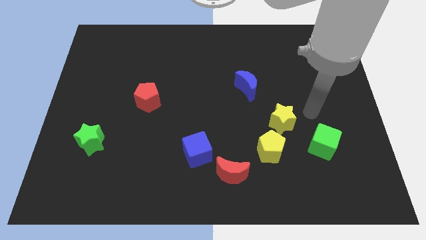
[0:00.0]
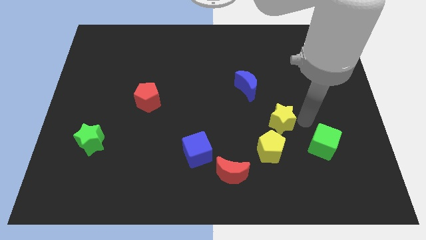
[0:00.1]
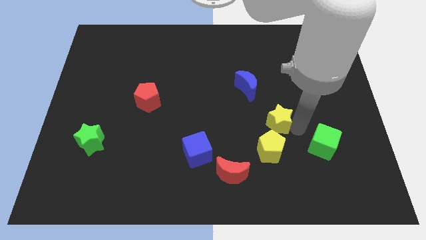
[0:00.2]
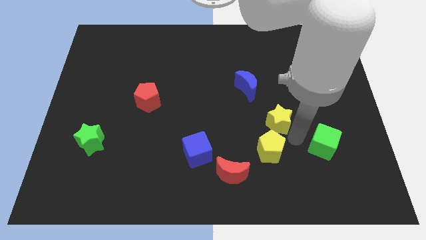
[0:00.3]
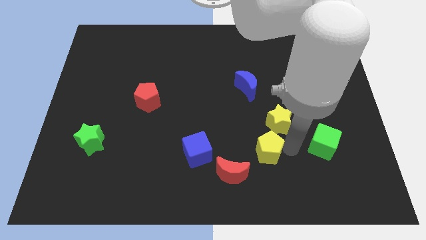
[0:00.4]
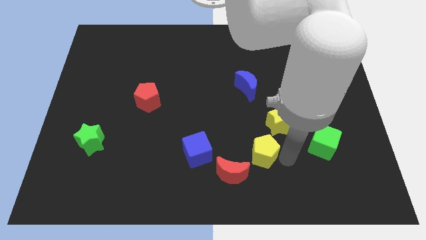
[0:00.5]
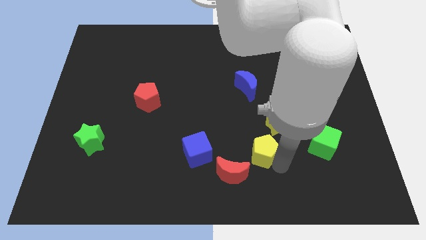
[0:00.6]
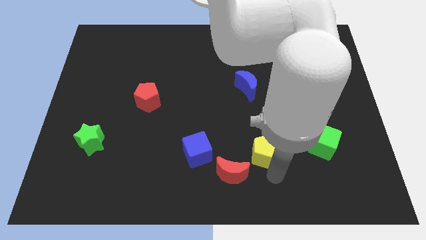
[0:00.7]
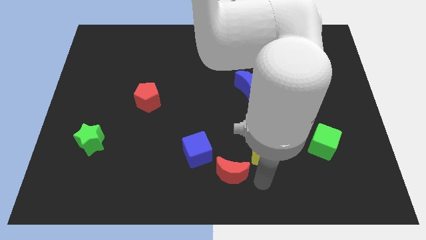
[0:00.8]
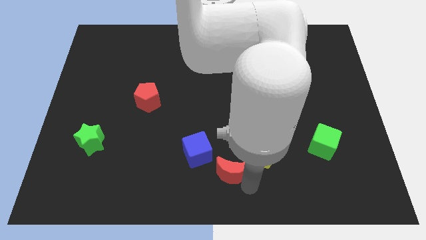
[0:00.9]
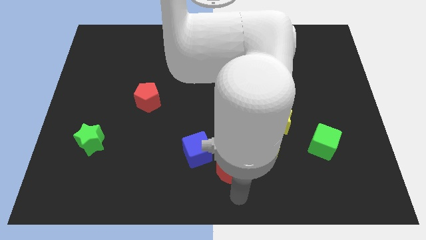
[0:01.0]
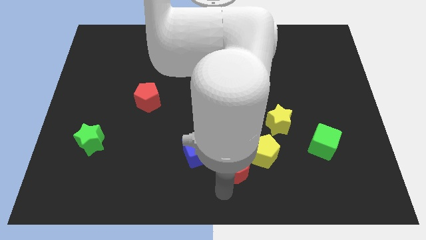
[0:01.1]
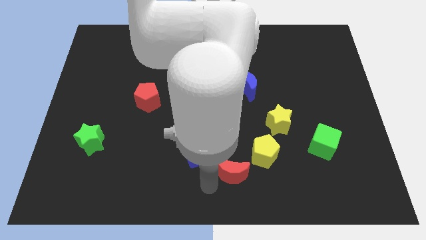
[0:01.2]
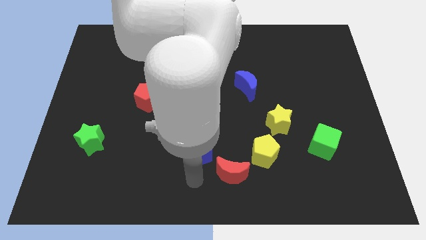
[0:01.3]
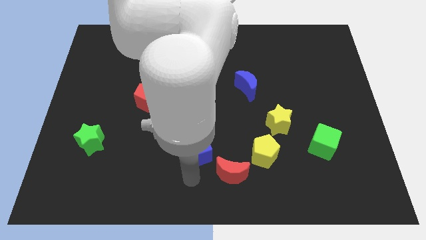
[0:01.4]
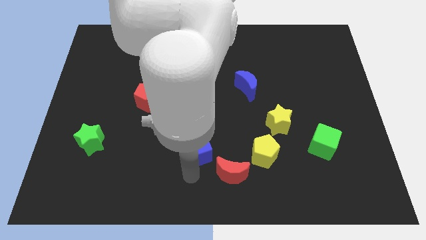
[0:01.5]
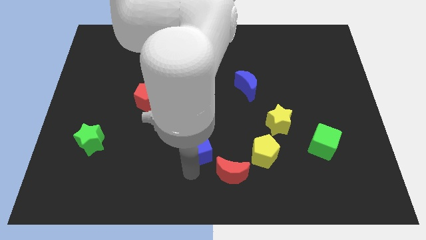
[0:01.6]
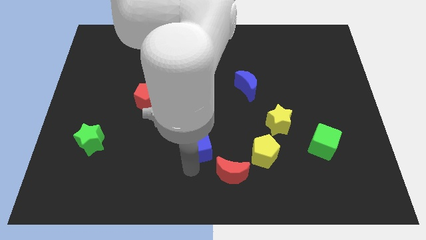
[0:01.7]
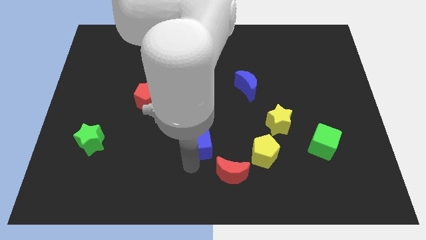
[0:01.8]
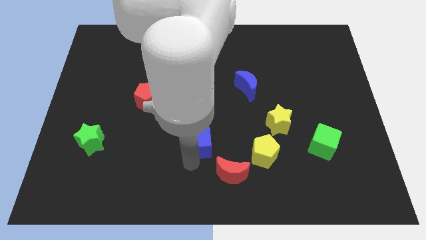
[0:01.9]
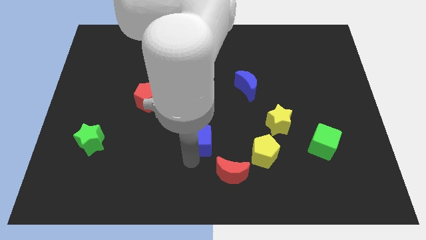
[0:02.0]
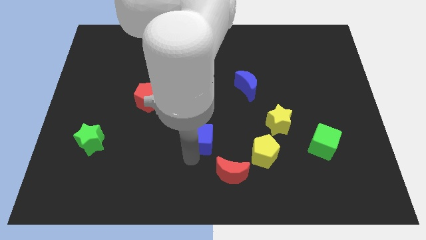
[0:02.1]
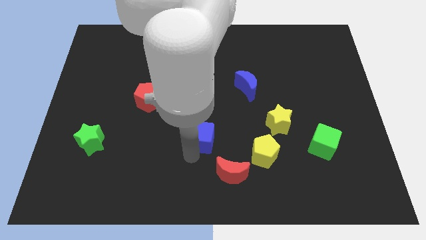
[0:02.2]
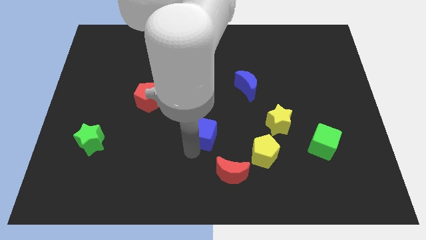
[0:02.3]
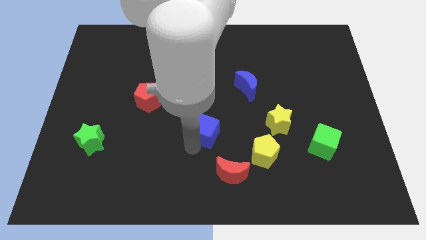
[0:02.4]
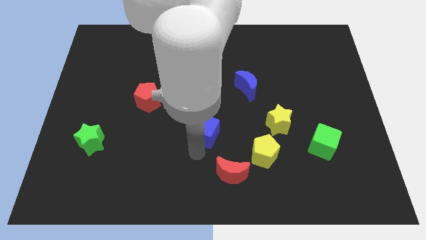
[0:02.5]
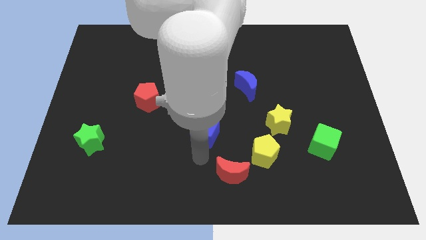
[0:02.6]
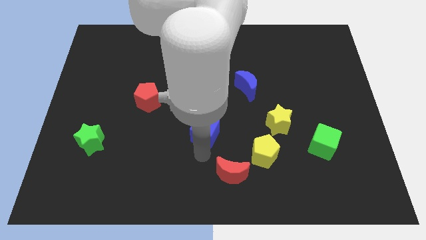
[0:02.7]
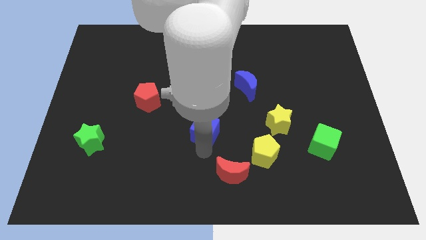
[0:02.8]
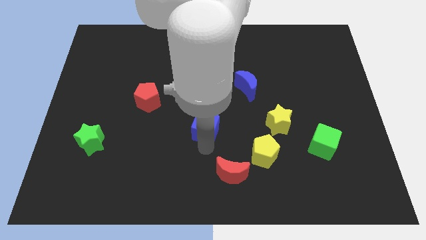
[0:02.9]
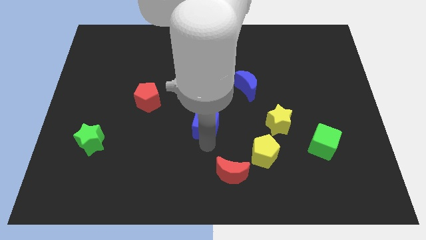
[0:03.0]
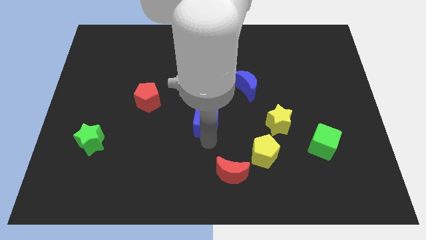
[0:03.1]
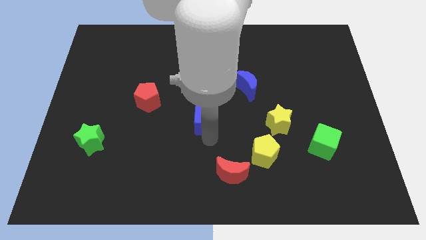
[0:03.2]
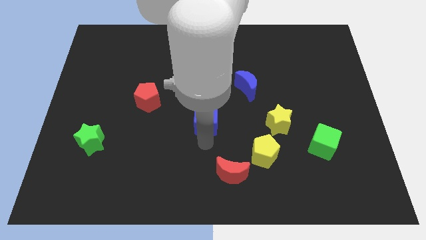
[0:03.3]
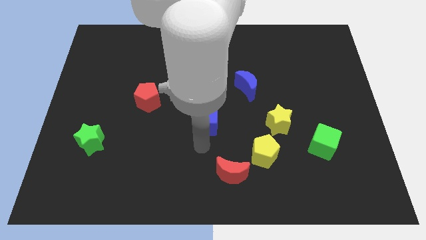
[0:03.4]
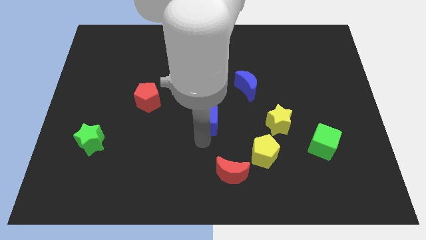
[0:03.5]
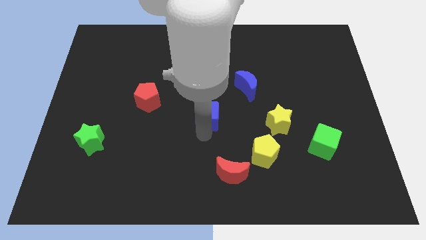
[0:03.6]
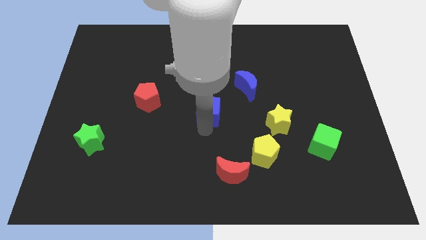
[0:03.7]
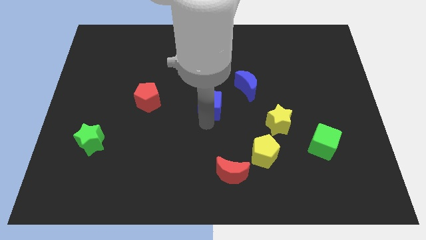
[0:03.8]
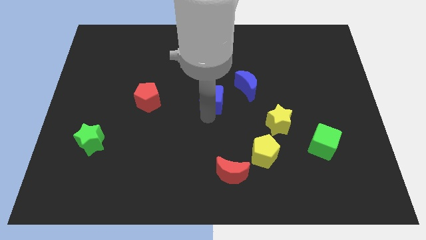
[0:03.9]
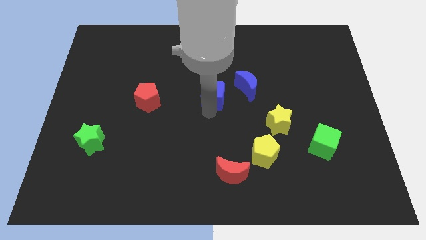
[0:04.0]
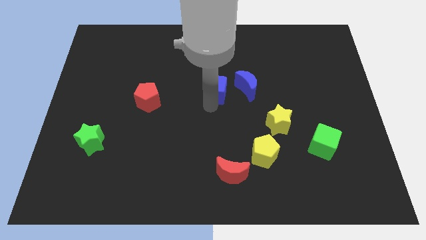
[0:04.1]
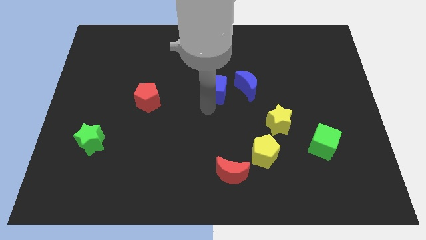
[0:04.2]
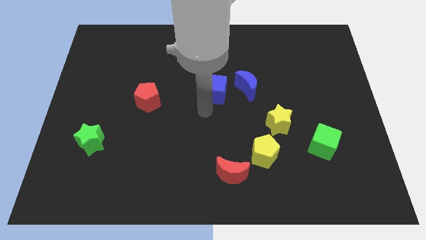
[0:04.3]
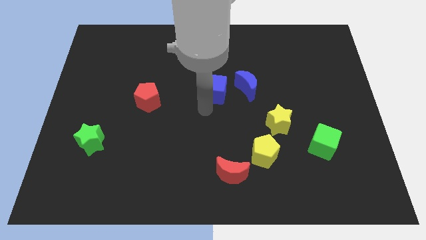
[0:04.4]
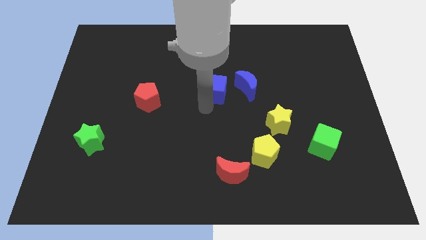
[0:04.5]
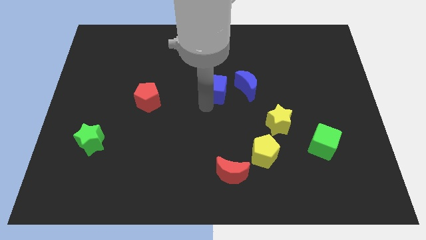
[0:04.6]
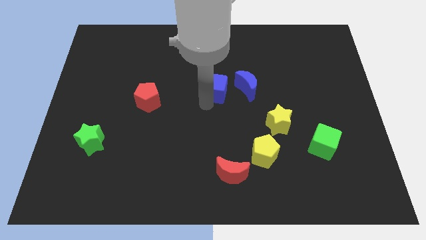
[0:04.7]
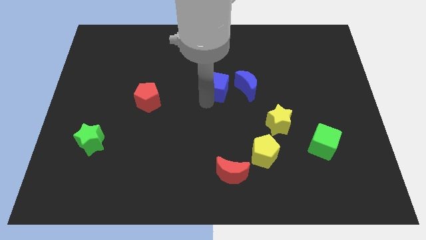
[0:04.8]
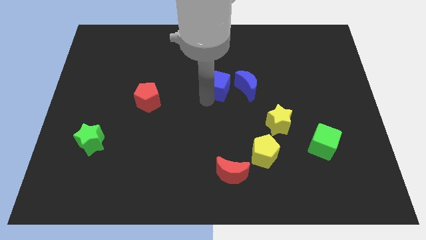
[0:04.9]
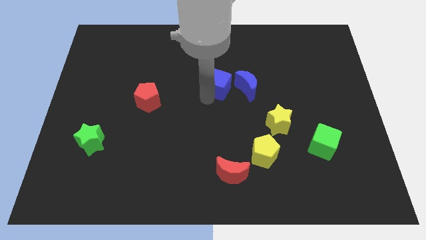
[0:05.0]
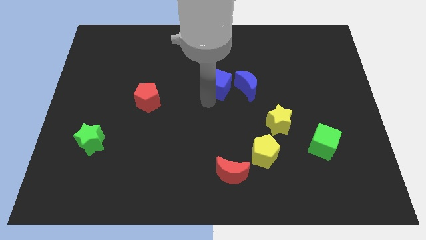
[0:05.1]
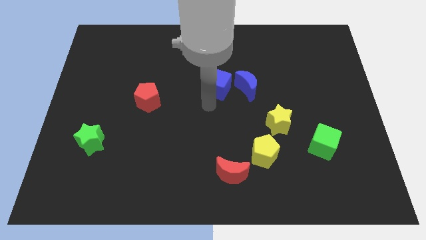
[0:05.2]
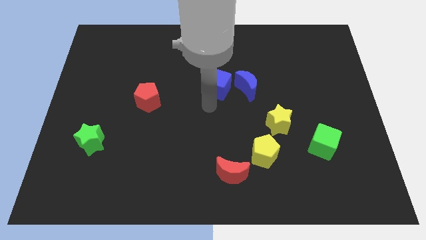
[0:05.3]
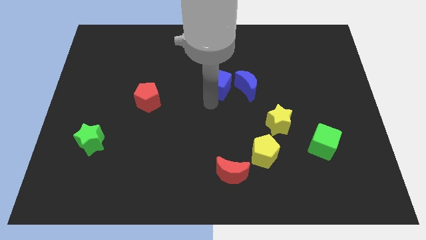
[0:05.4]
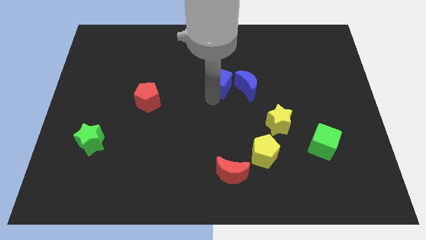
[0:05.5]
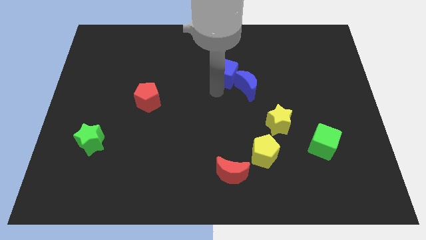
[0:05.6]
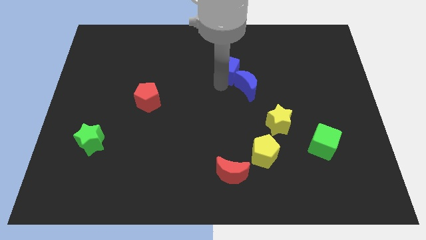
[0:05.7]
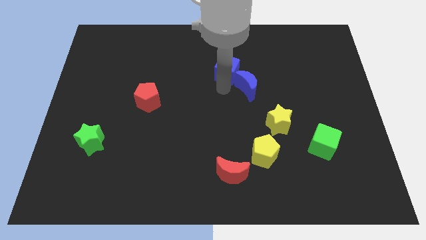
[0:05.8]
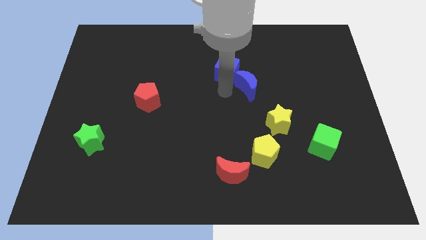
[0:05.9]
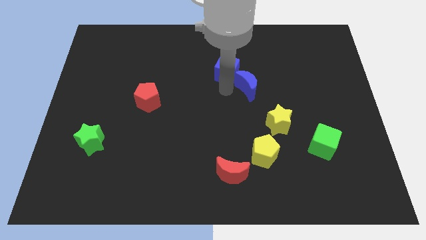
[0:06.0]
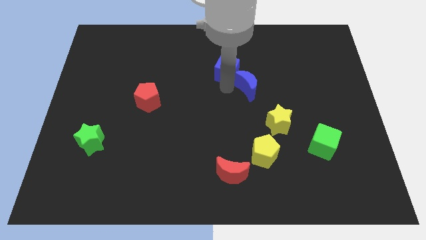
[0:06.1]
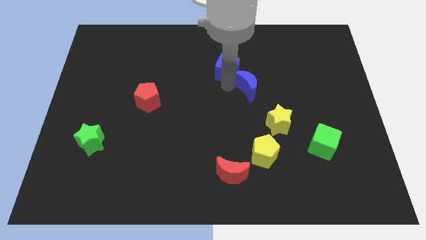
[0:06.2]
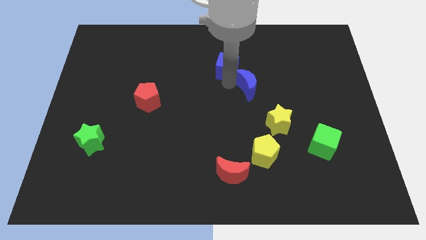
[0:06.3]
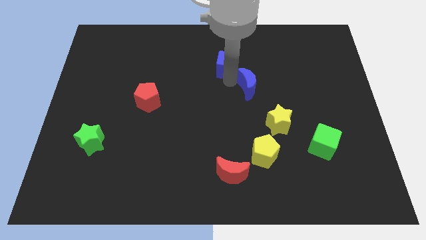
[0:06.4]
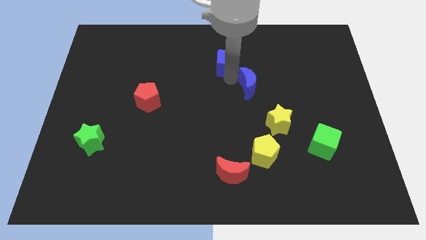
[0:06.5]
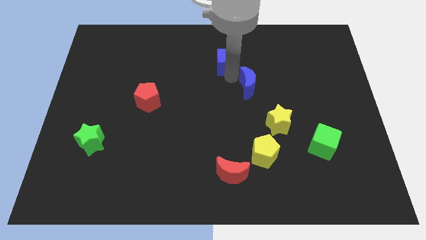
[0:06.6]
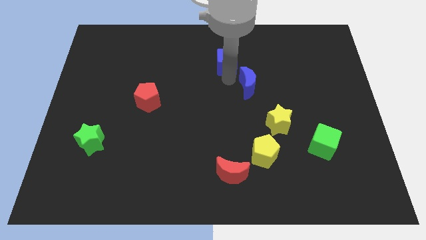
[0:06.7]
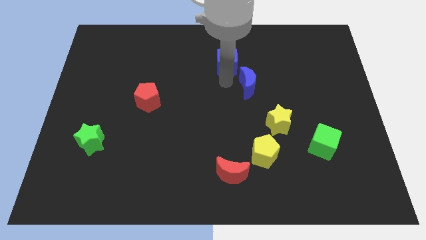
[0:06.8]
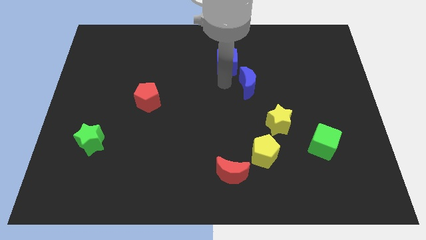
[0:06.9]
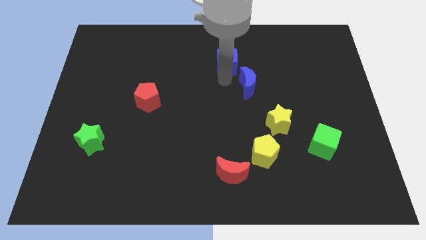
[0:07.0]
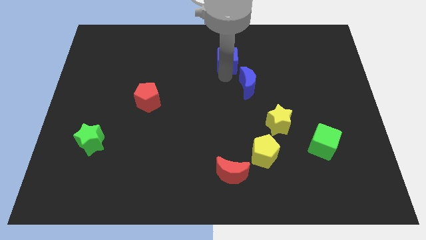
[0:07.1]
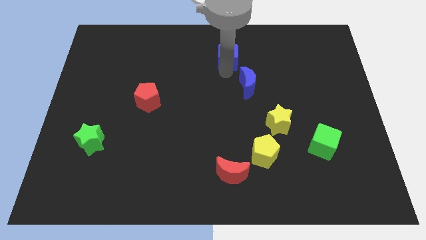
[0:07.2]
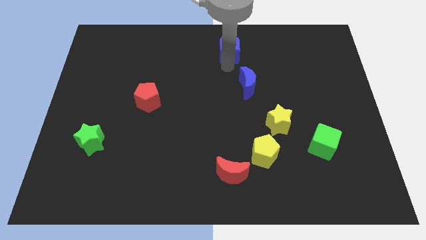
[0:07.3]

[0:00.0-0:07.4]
push the blue cube to the top
